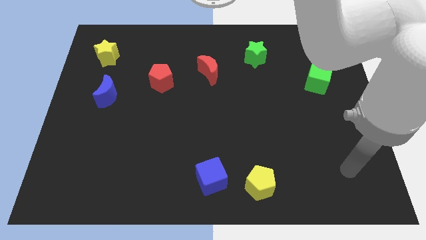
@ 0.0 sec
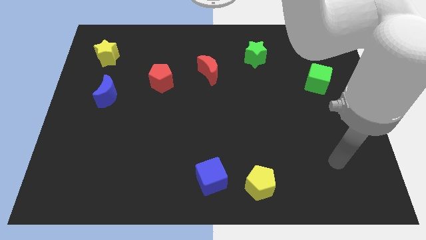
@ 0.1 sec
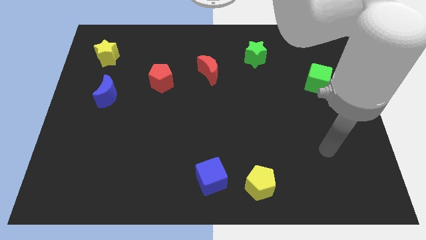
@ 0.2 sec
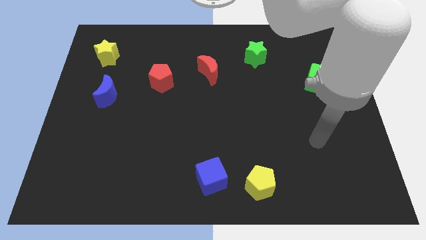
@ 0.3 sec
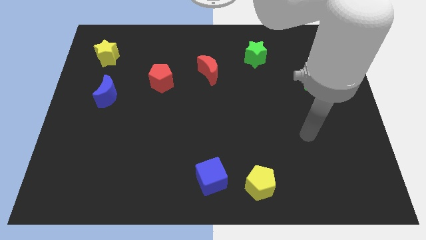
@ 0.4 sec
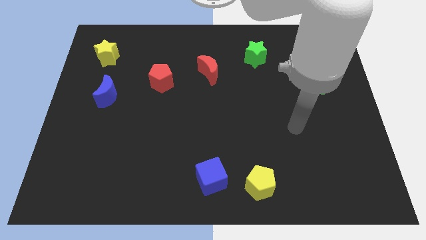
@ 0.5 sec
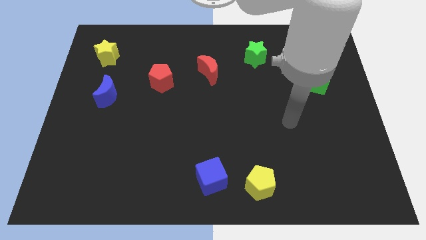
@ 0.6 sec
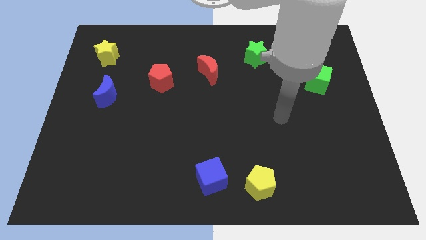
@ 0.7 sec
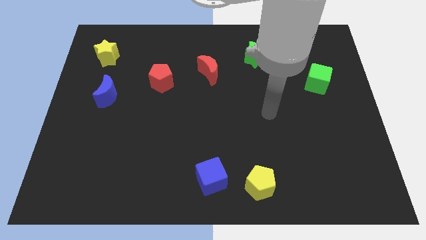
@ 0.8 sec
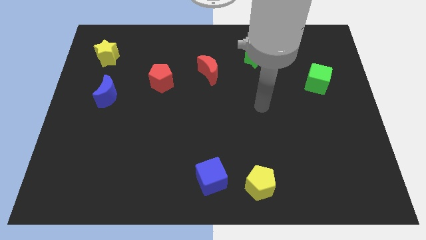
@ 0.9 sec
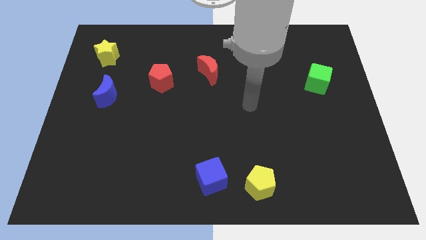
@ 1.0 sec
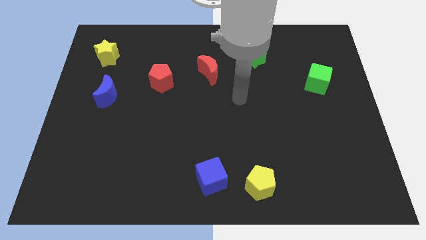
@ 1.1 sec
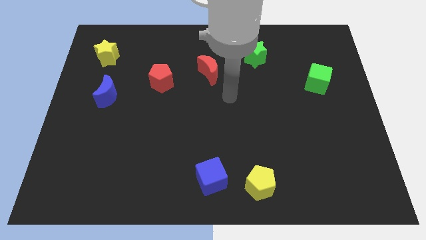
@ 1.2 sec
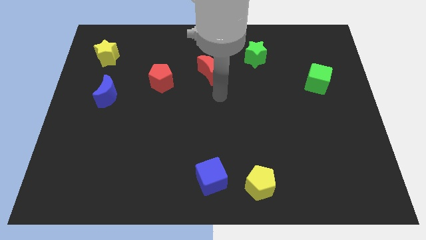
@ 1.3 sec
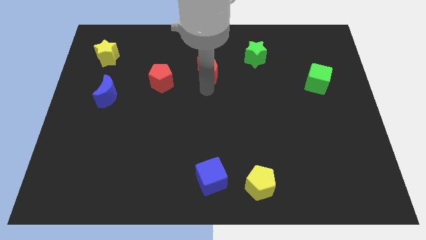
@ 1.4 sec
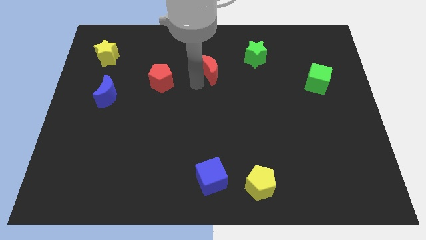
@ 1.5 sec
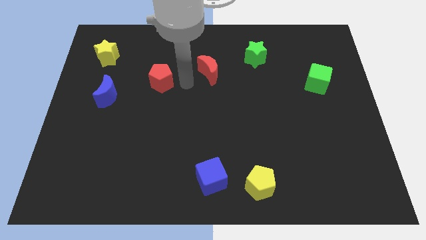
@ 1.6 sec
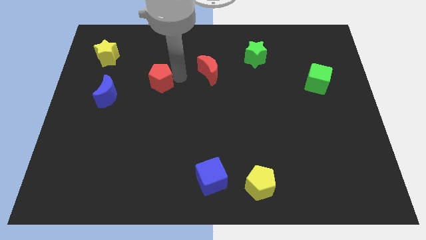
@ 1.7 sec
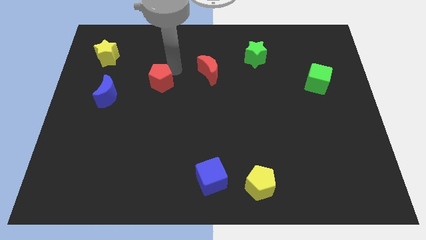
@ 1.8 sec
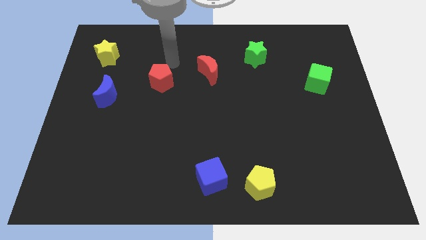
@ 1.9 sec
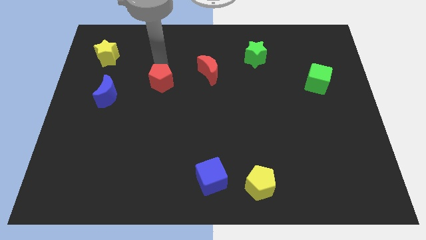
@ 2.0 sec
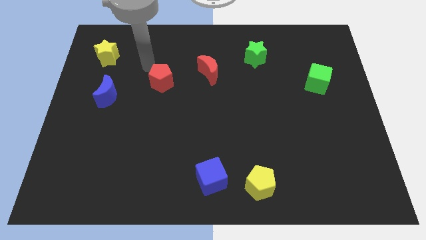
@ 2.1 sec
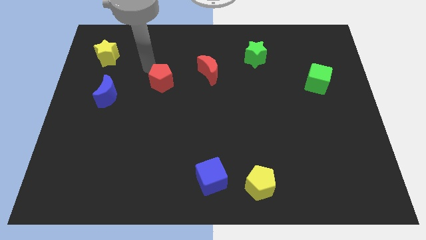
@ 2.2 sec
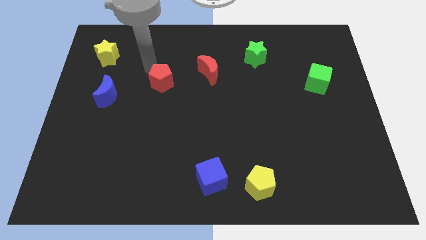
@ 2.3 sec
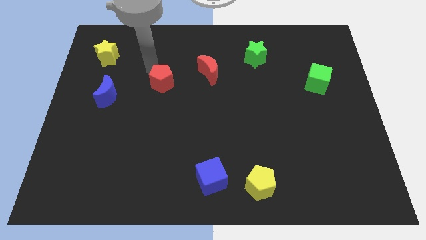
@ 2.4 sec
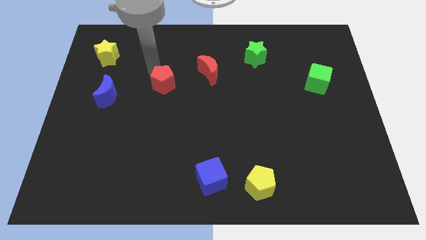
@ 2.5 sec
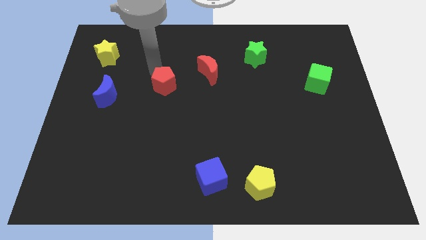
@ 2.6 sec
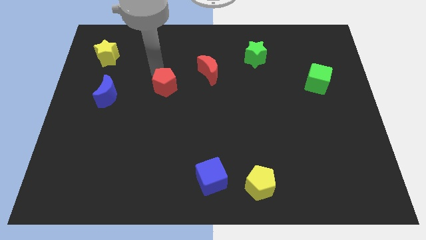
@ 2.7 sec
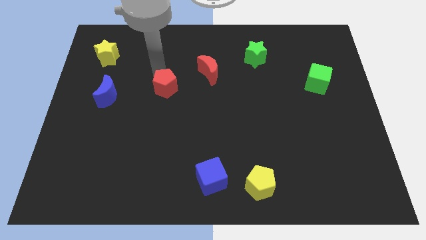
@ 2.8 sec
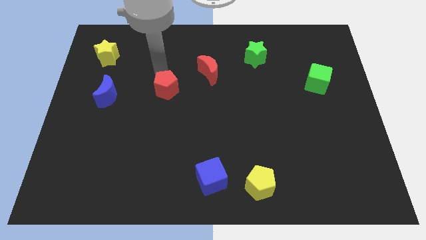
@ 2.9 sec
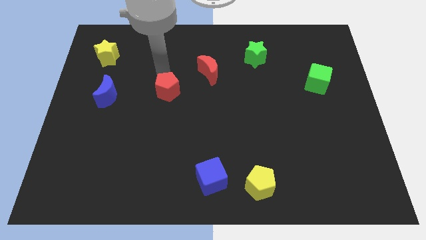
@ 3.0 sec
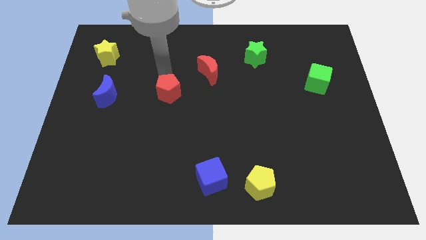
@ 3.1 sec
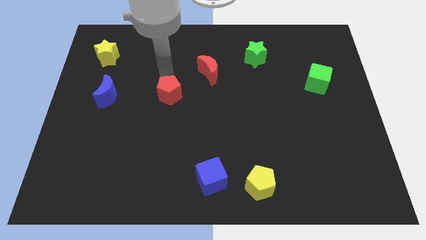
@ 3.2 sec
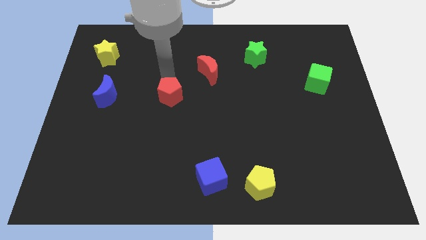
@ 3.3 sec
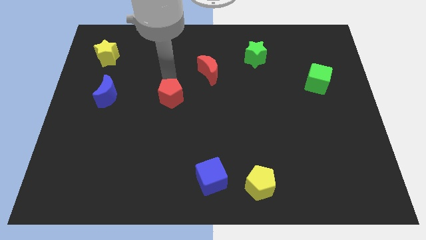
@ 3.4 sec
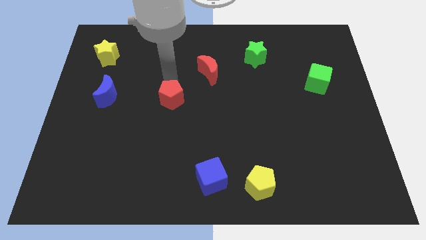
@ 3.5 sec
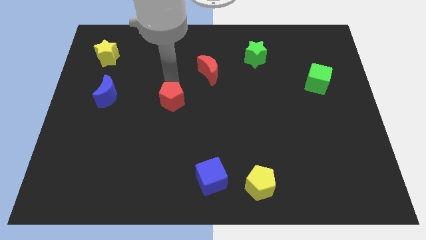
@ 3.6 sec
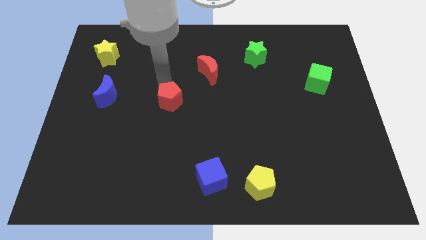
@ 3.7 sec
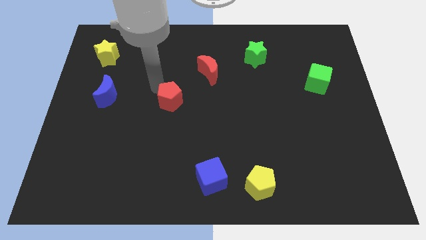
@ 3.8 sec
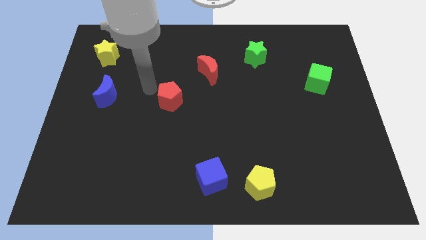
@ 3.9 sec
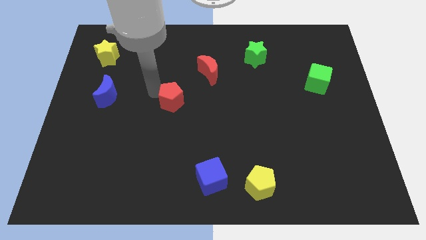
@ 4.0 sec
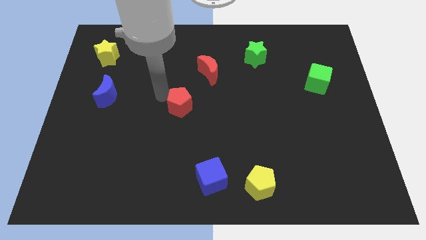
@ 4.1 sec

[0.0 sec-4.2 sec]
move the red pentagon a little downwards and right

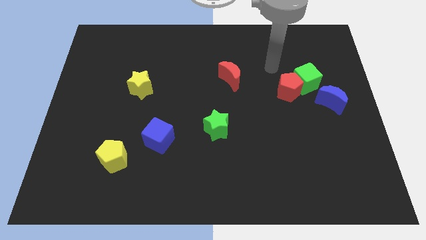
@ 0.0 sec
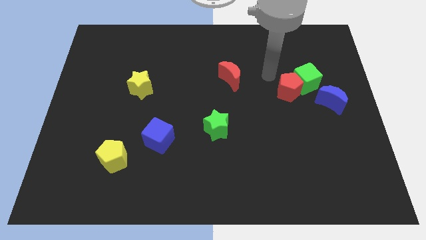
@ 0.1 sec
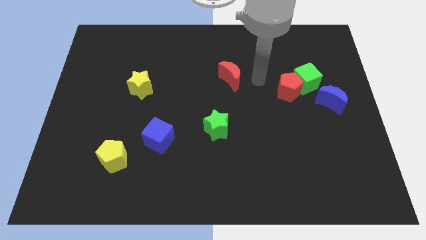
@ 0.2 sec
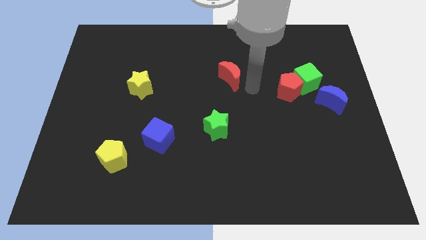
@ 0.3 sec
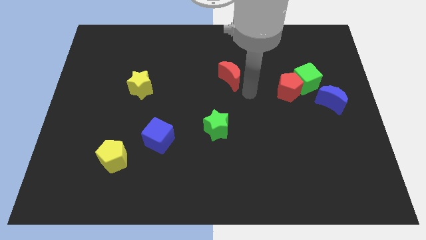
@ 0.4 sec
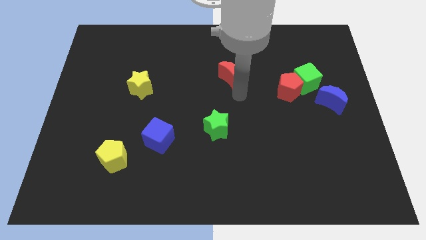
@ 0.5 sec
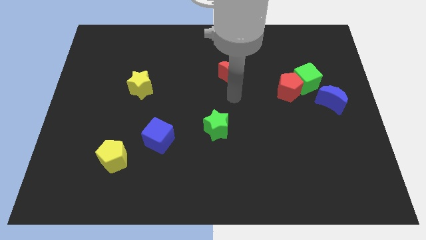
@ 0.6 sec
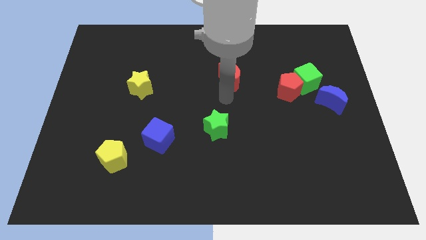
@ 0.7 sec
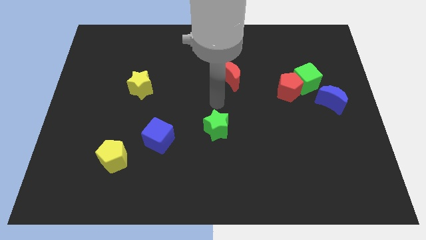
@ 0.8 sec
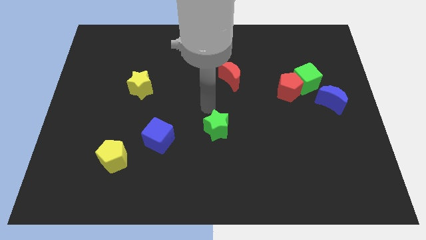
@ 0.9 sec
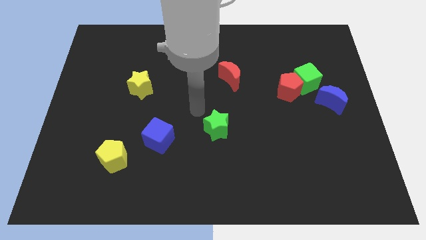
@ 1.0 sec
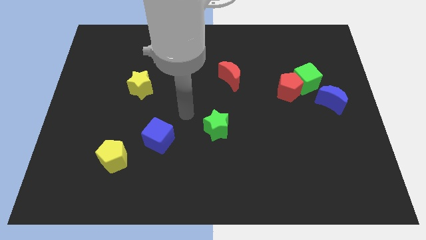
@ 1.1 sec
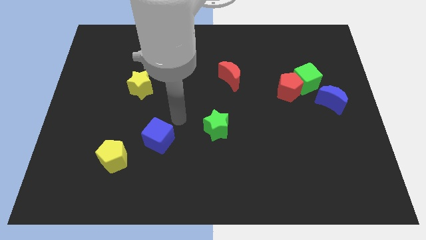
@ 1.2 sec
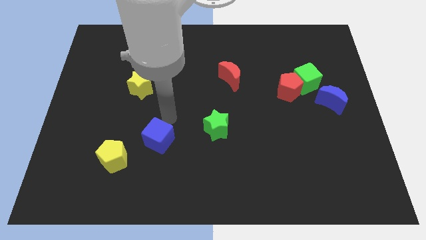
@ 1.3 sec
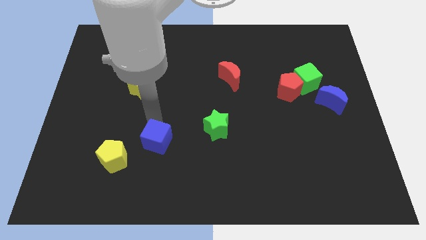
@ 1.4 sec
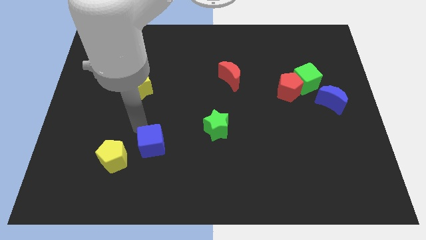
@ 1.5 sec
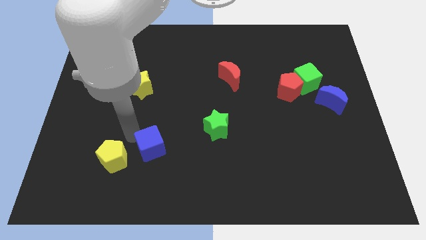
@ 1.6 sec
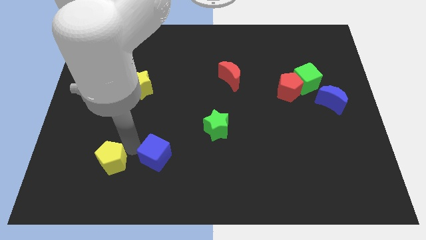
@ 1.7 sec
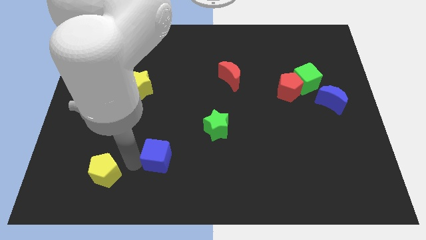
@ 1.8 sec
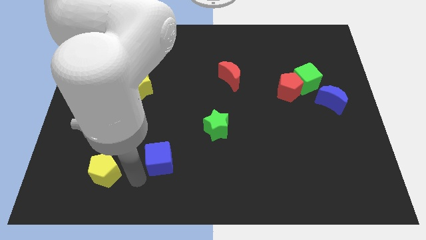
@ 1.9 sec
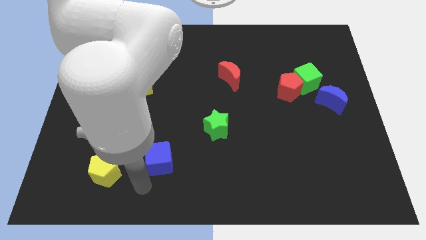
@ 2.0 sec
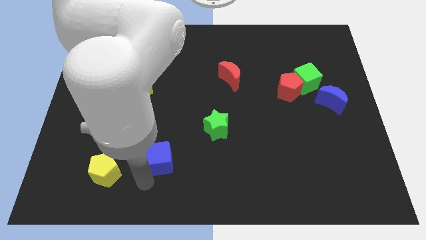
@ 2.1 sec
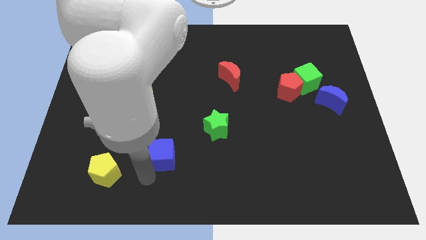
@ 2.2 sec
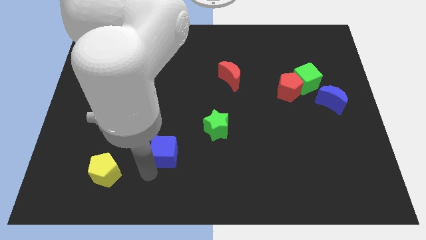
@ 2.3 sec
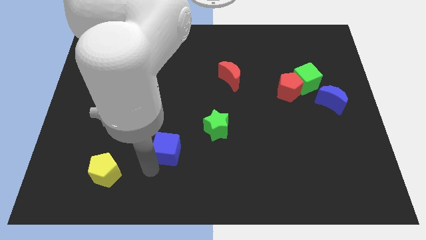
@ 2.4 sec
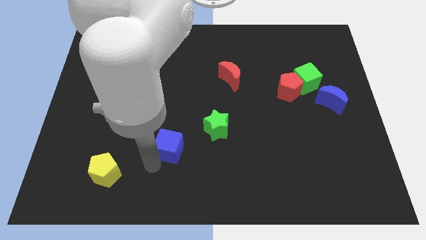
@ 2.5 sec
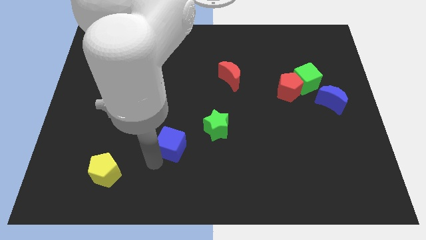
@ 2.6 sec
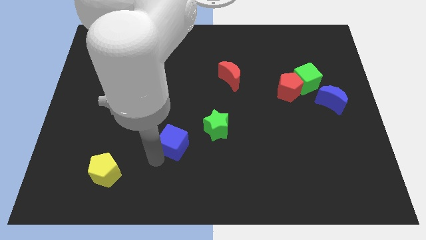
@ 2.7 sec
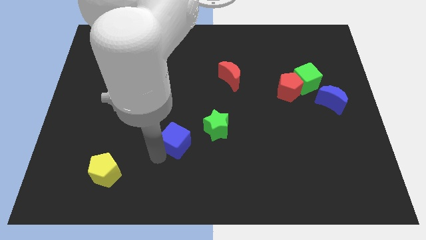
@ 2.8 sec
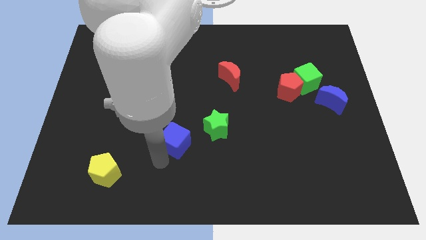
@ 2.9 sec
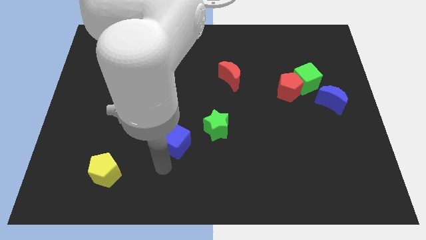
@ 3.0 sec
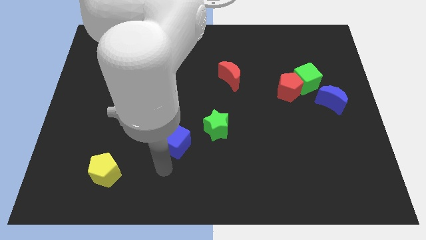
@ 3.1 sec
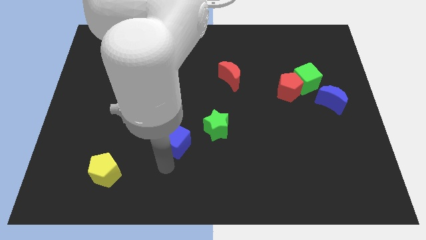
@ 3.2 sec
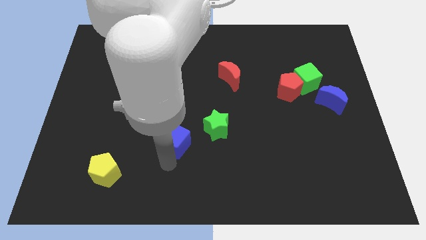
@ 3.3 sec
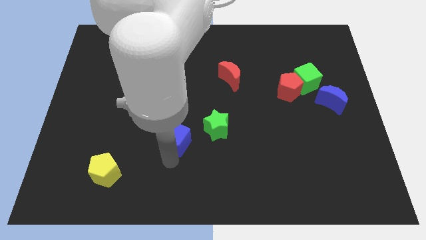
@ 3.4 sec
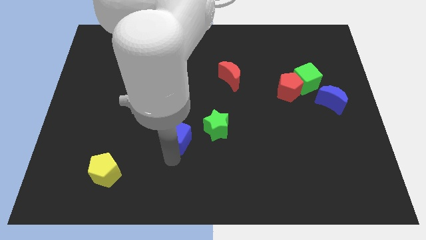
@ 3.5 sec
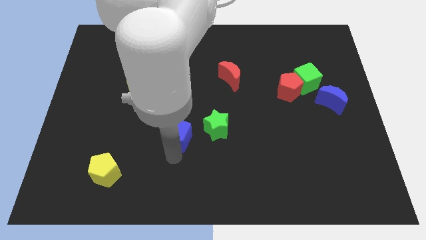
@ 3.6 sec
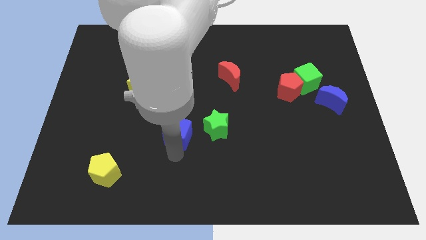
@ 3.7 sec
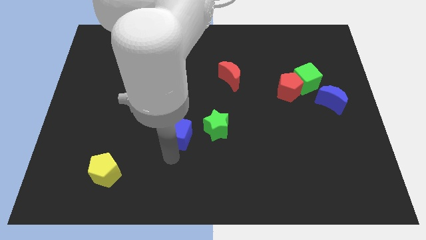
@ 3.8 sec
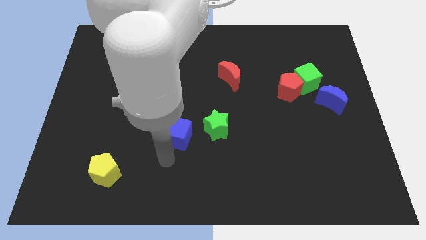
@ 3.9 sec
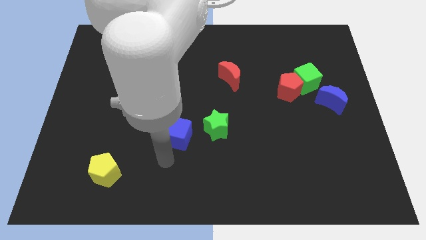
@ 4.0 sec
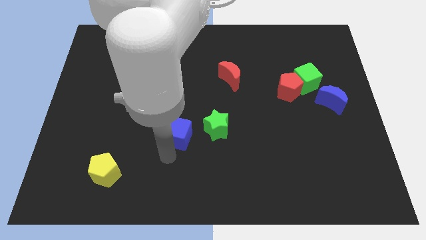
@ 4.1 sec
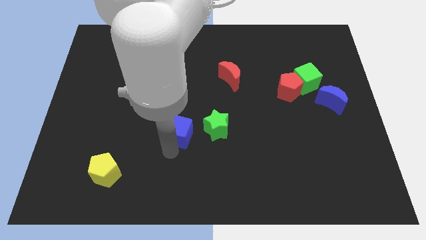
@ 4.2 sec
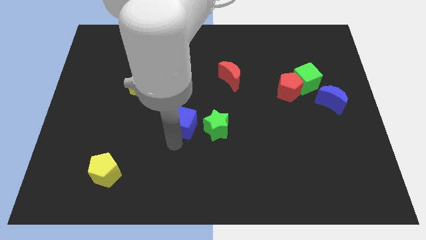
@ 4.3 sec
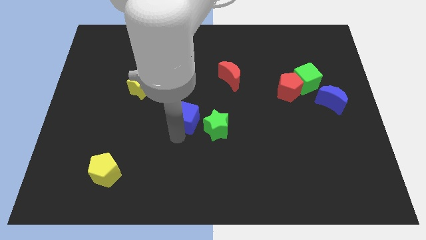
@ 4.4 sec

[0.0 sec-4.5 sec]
slightly move the blue cube diagonally up and right
